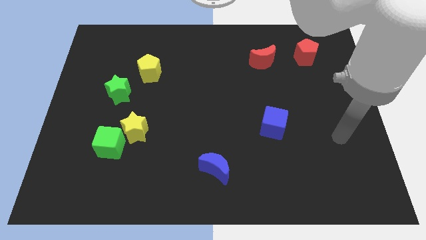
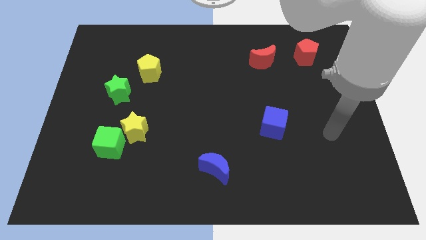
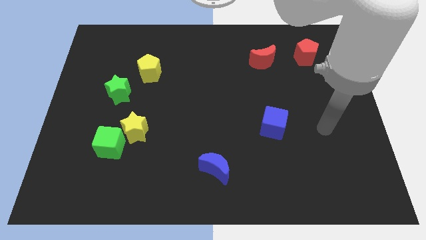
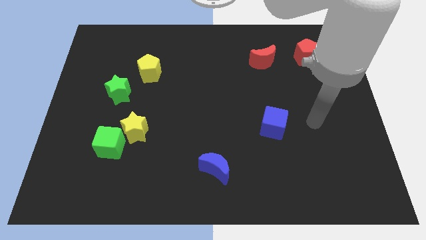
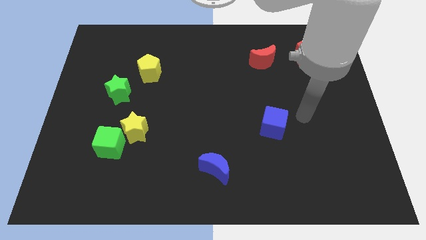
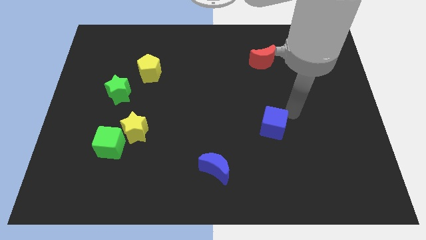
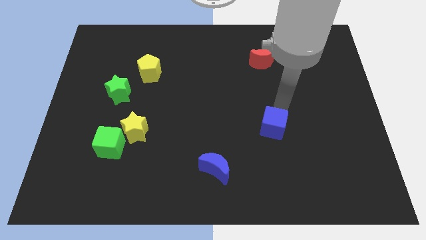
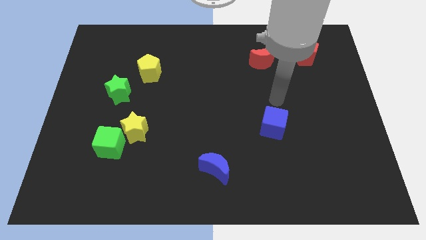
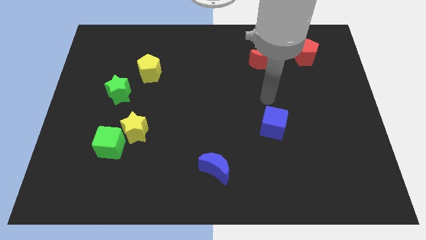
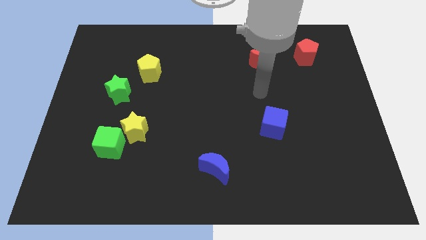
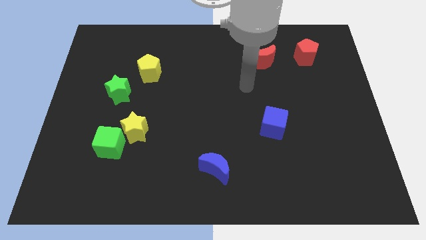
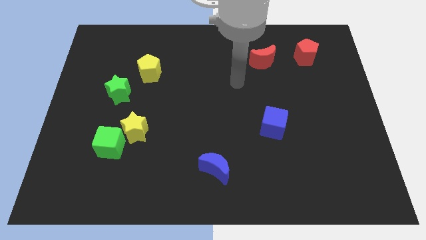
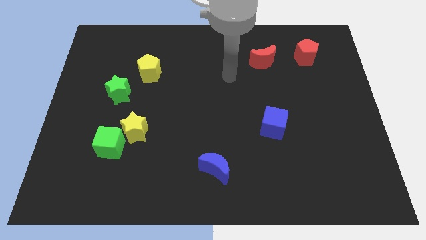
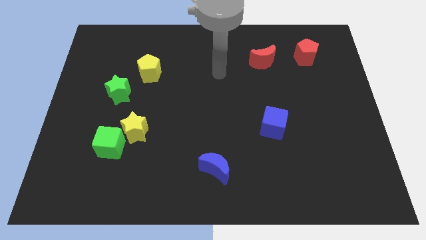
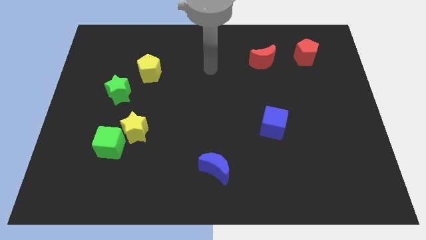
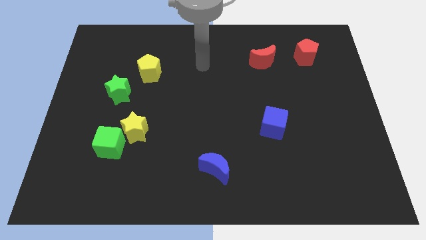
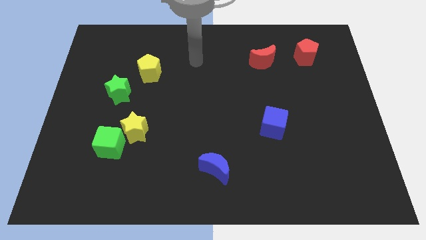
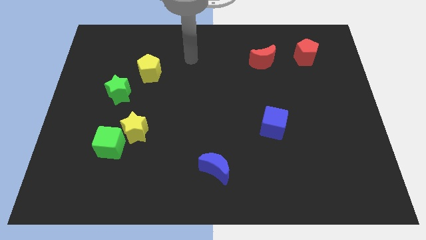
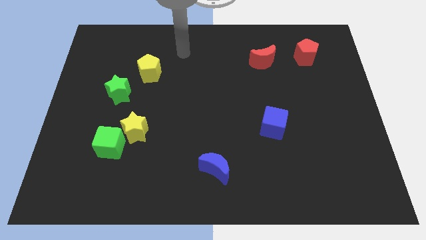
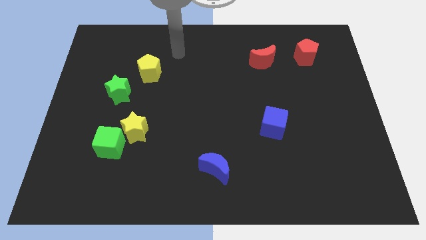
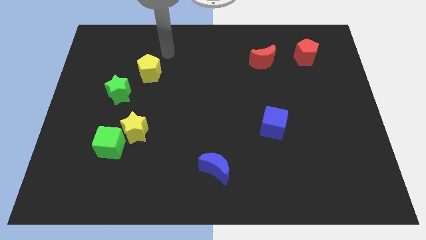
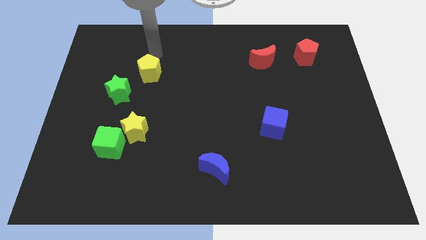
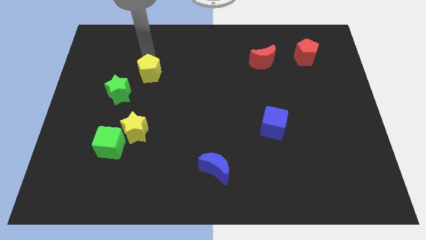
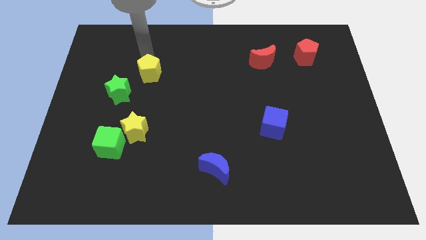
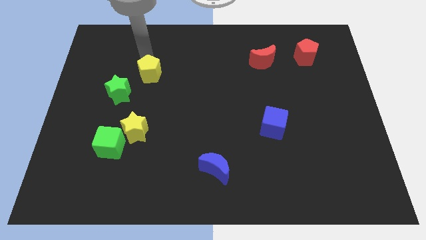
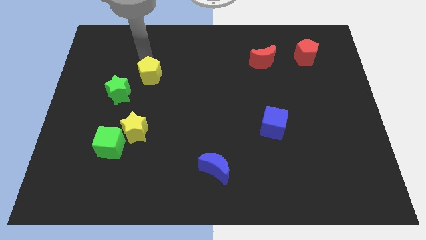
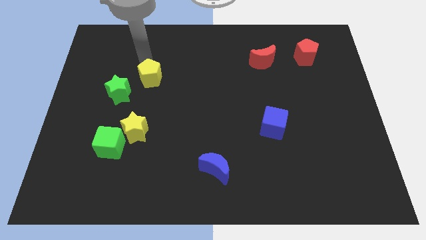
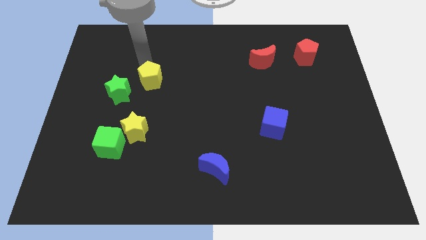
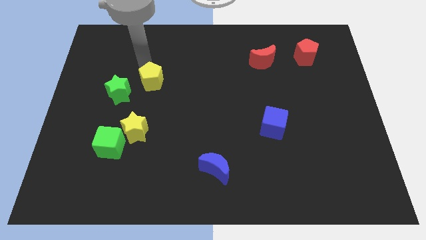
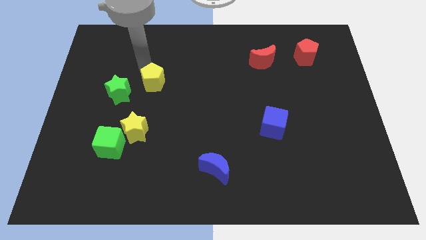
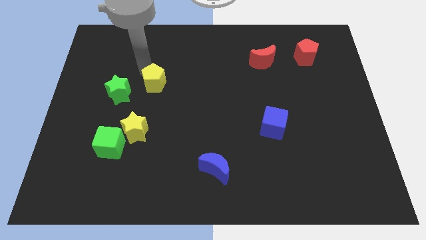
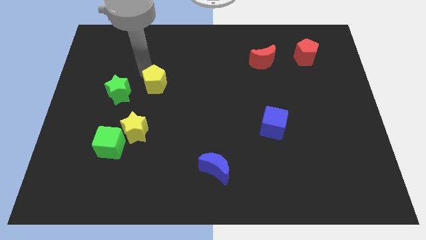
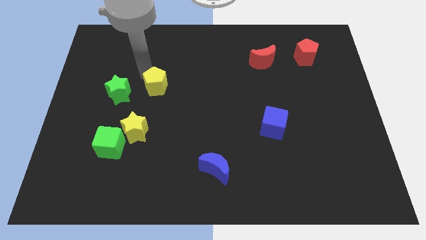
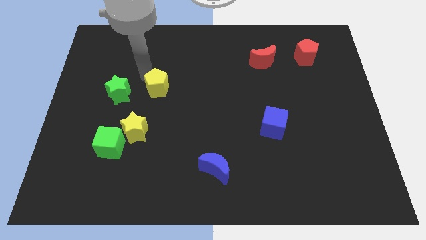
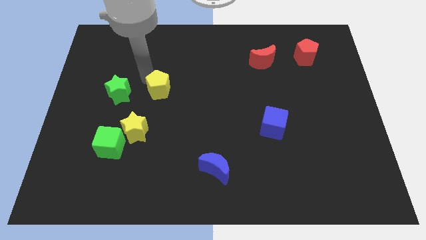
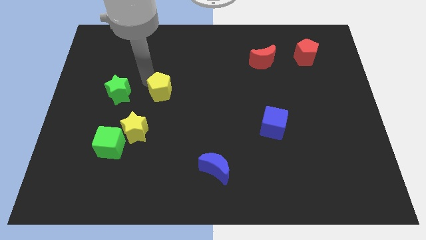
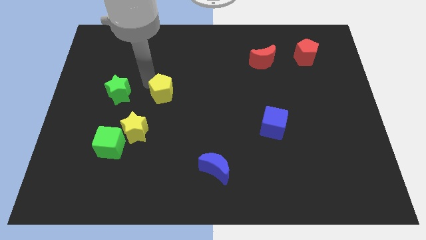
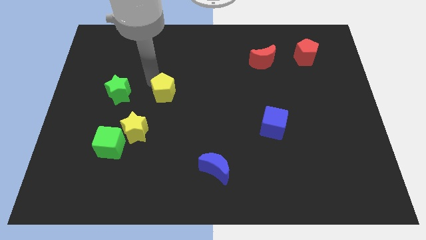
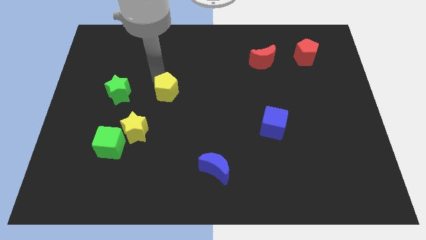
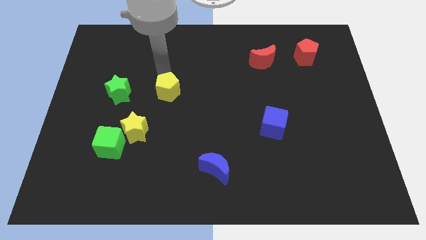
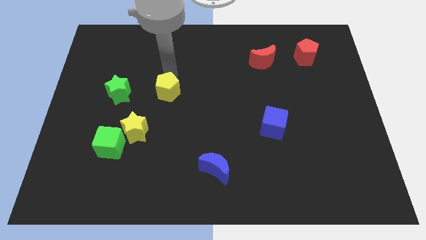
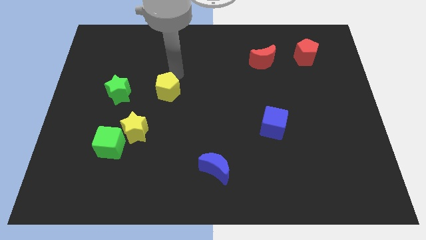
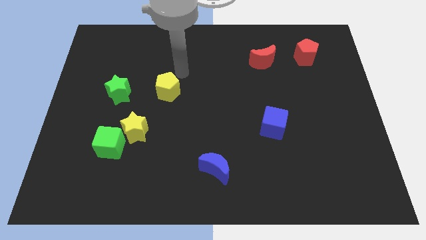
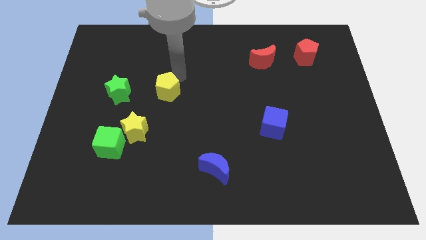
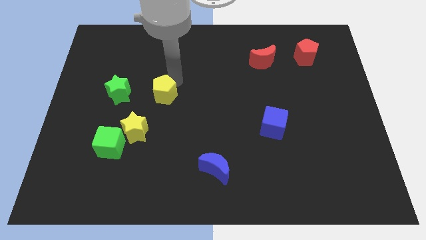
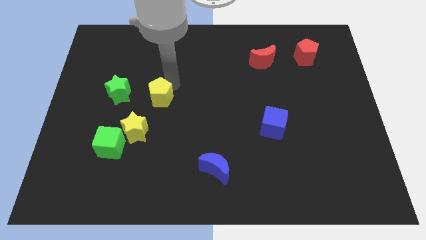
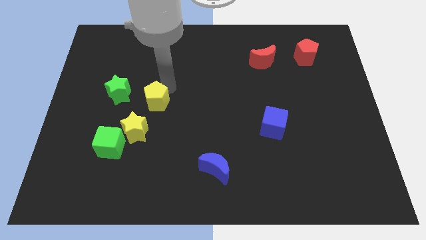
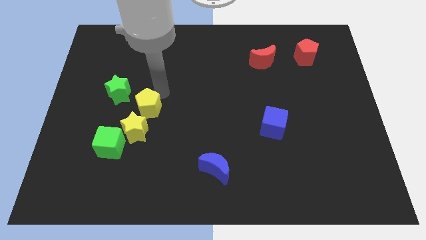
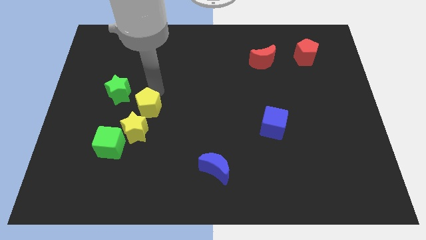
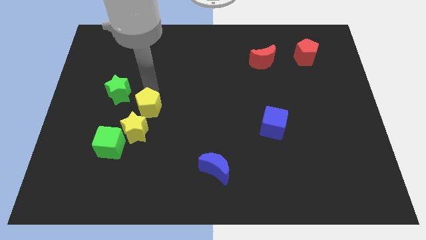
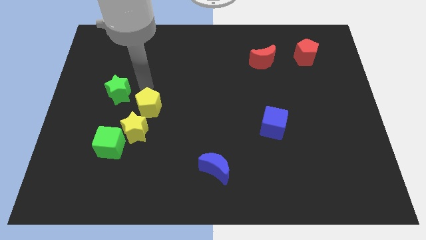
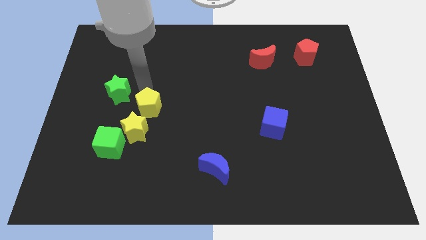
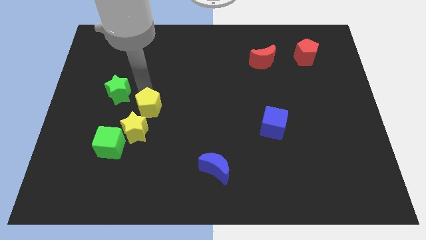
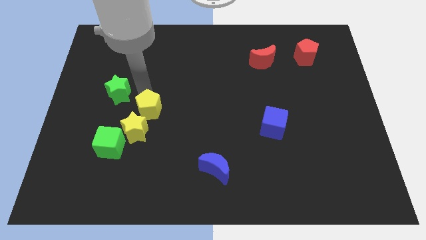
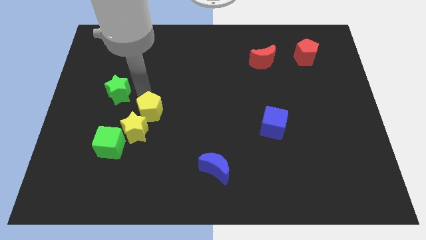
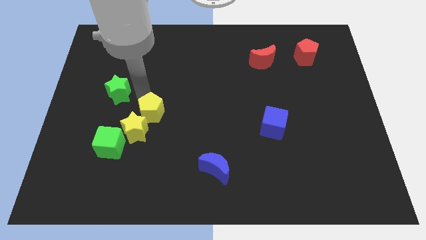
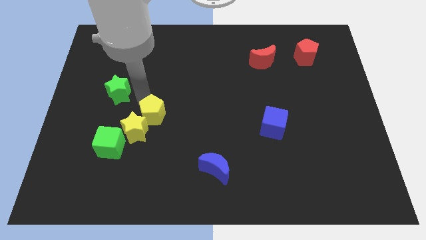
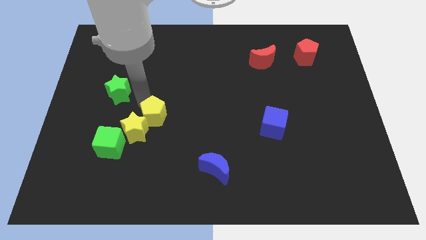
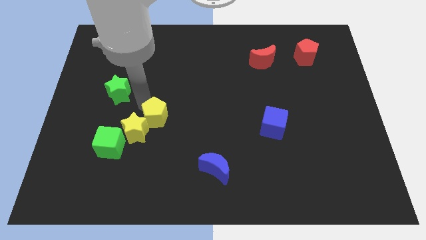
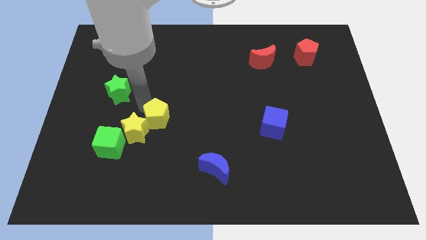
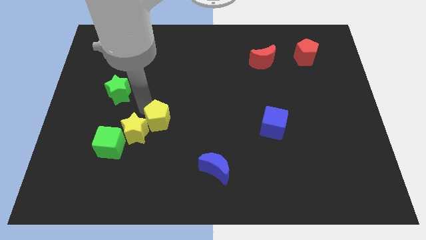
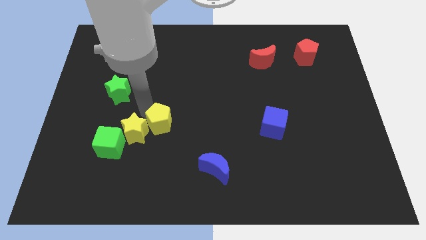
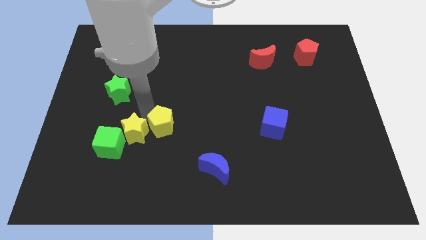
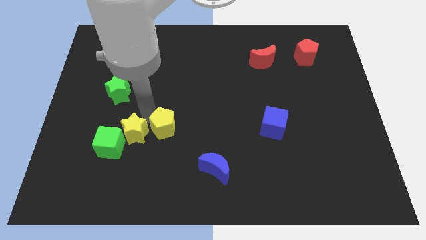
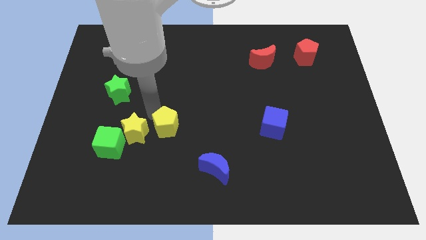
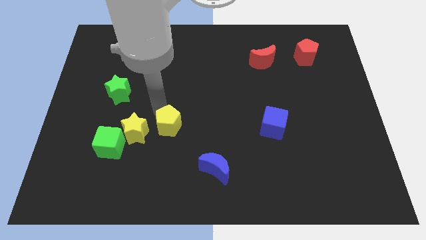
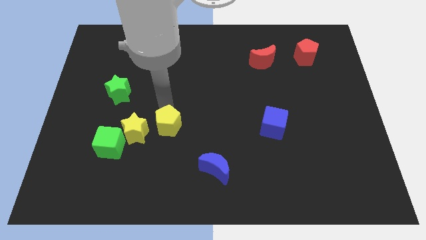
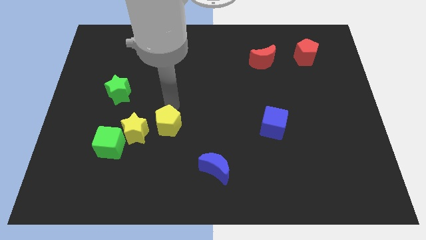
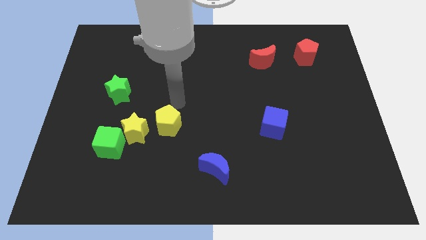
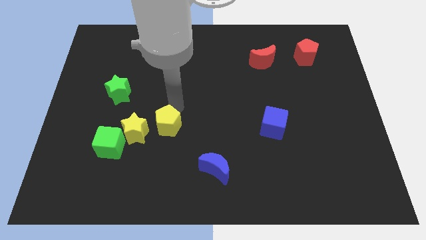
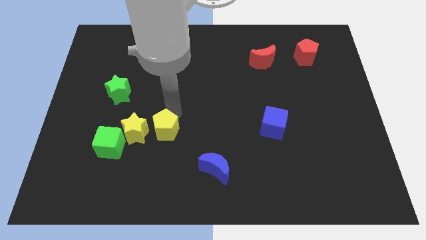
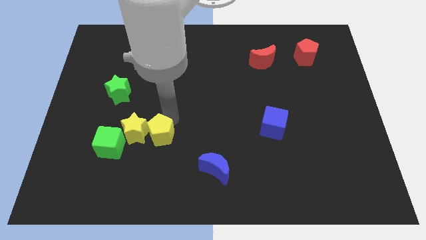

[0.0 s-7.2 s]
push the yellow pentagon to the bottom right side of the yellow star
